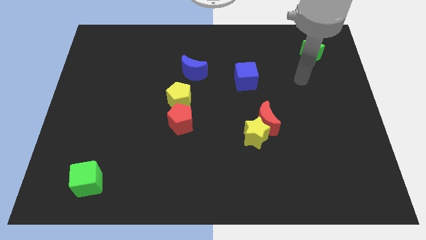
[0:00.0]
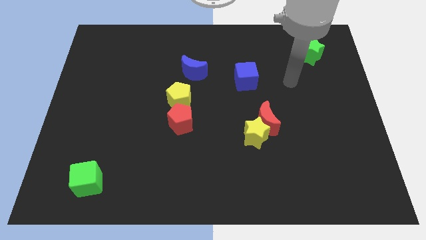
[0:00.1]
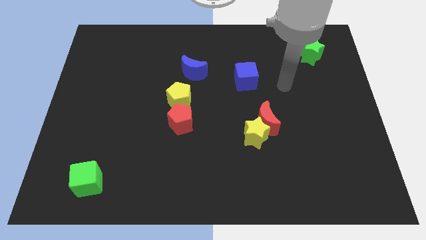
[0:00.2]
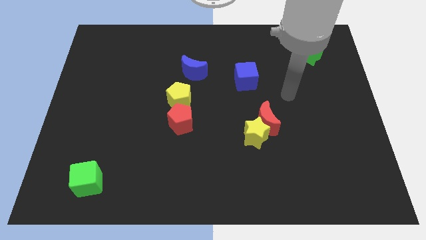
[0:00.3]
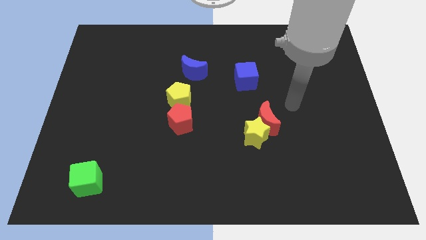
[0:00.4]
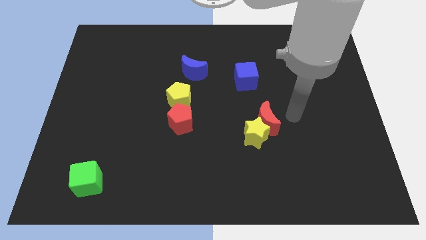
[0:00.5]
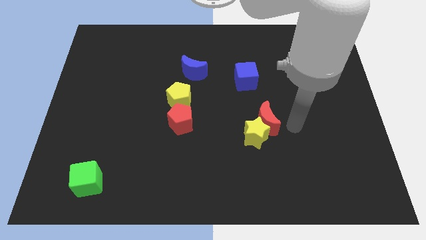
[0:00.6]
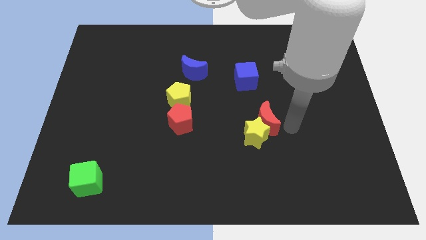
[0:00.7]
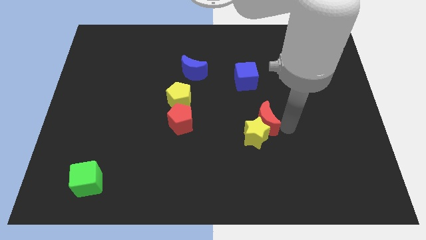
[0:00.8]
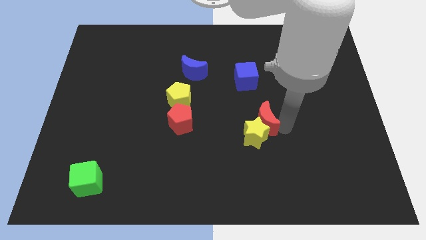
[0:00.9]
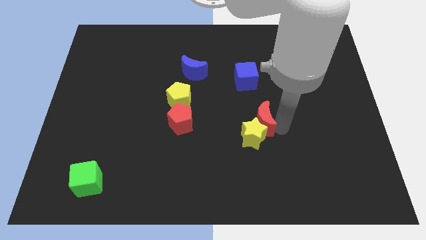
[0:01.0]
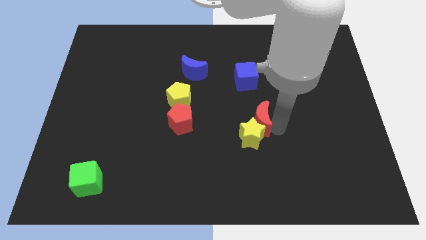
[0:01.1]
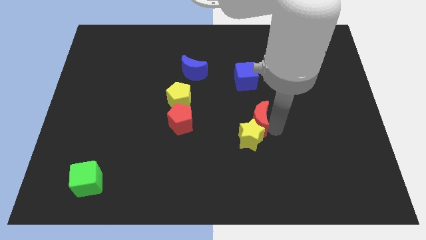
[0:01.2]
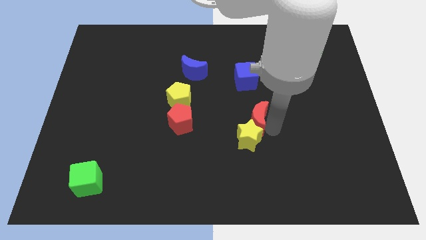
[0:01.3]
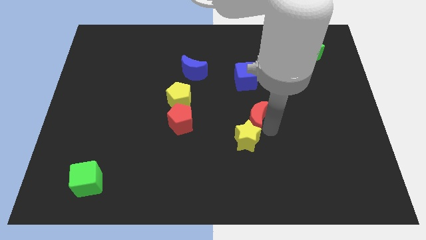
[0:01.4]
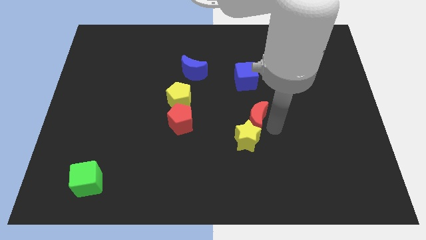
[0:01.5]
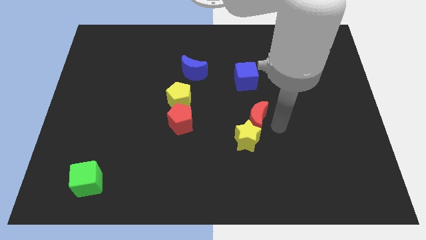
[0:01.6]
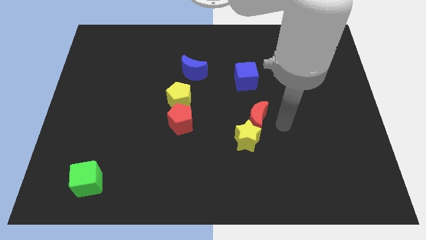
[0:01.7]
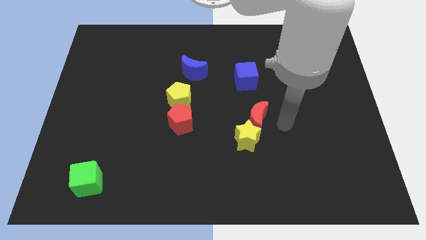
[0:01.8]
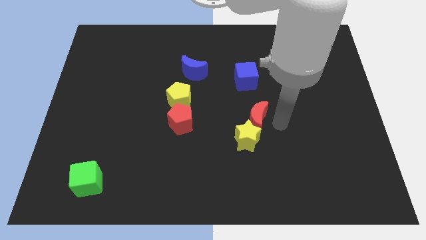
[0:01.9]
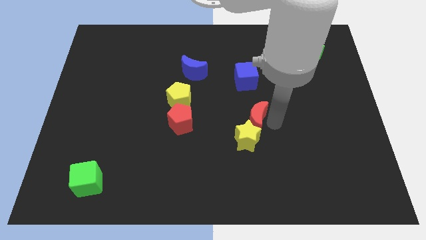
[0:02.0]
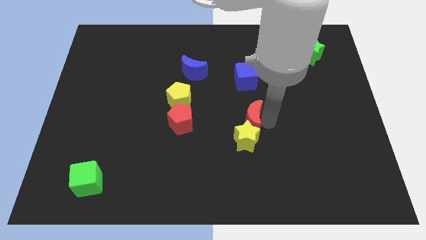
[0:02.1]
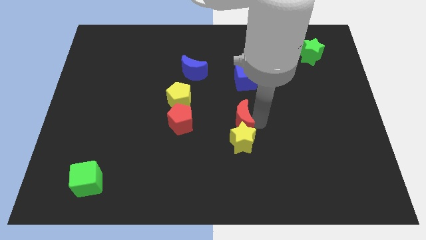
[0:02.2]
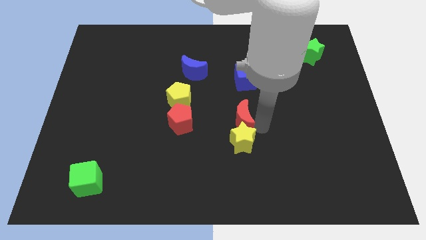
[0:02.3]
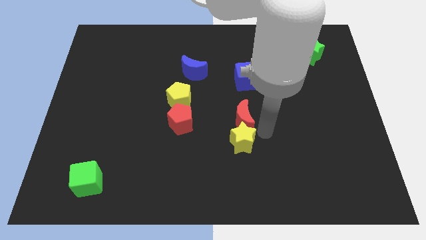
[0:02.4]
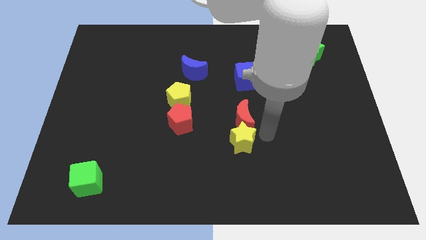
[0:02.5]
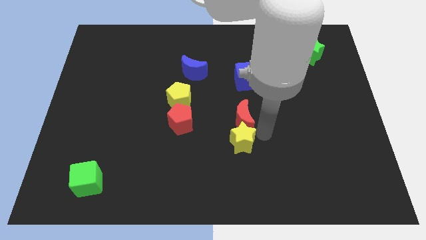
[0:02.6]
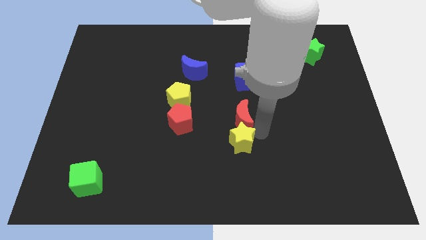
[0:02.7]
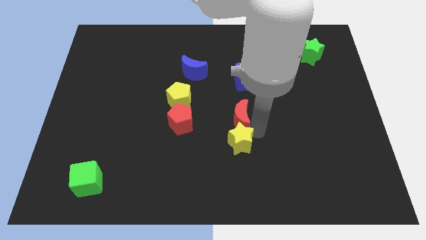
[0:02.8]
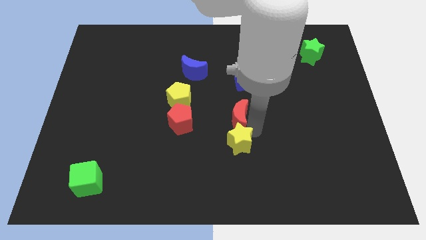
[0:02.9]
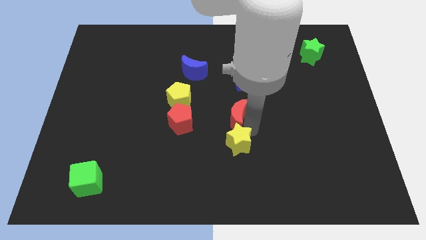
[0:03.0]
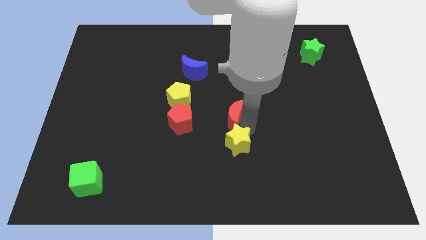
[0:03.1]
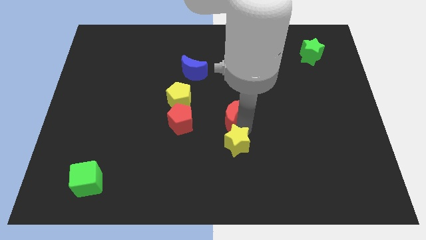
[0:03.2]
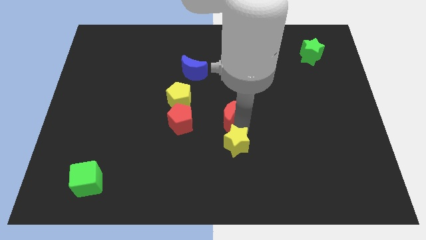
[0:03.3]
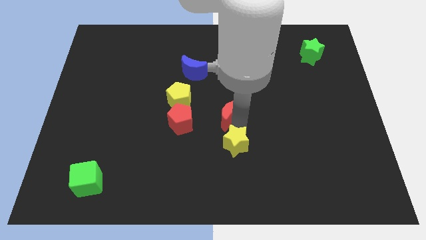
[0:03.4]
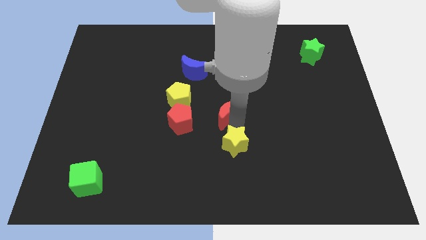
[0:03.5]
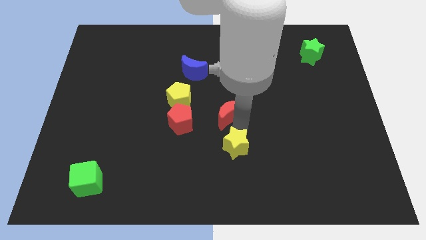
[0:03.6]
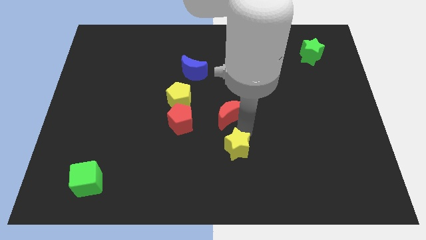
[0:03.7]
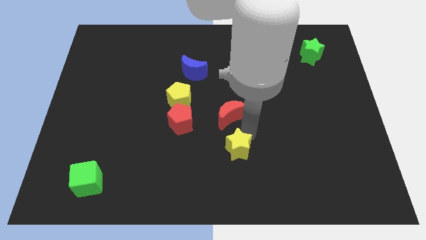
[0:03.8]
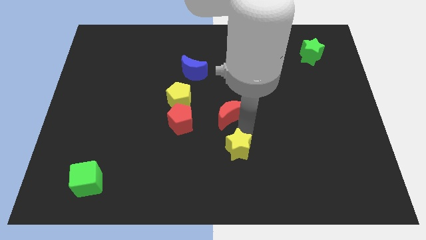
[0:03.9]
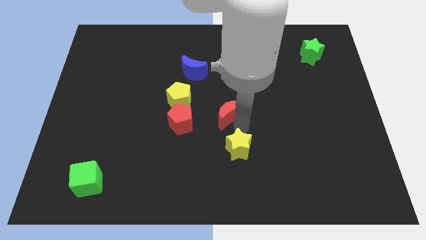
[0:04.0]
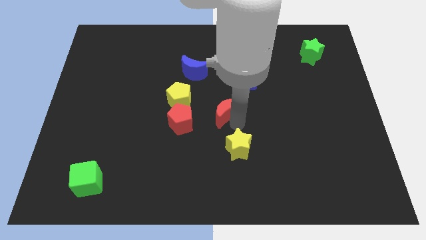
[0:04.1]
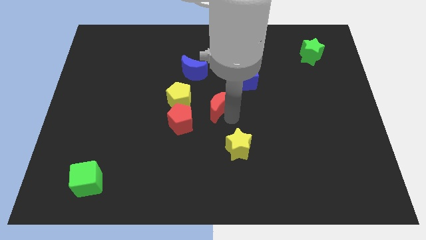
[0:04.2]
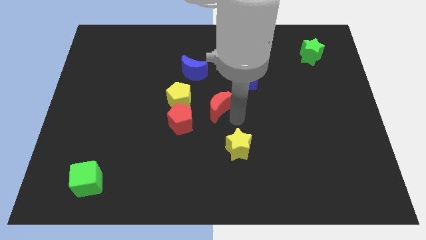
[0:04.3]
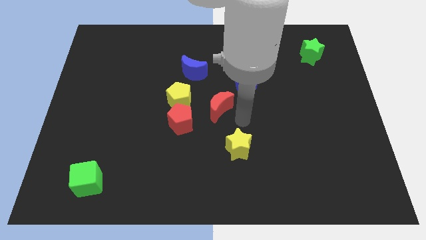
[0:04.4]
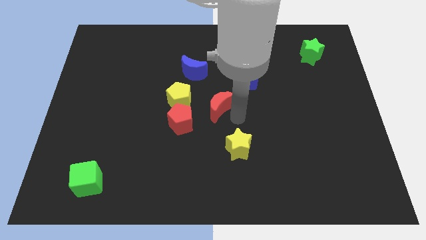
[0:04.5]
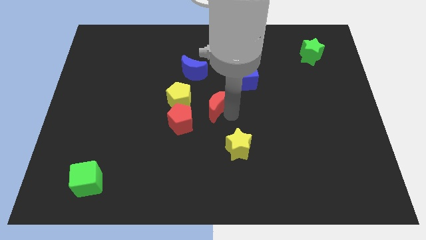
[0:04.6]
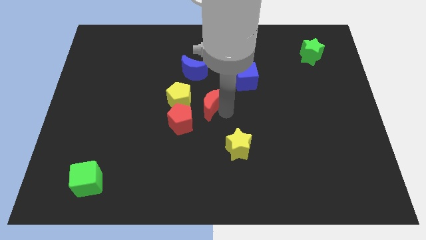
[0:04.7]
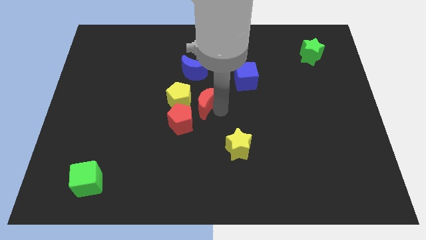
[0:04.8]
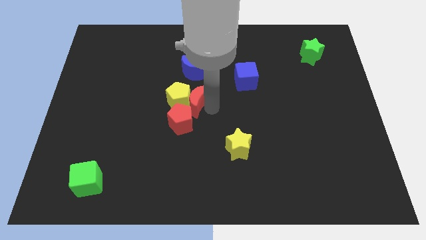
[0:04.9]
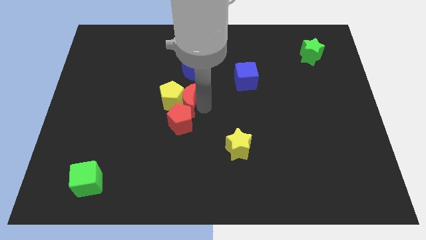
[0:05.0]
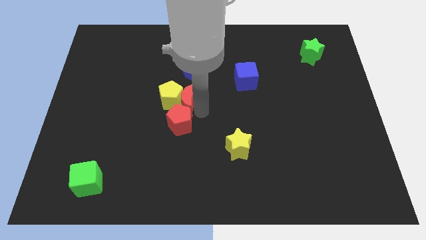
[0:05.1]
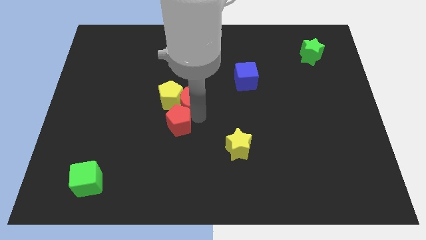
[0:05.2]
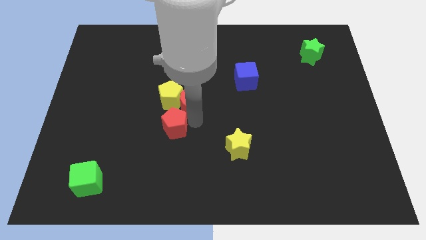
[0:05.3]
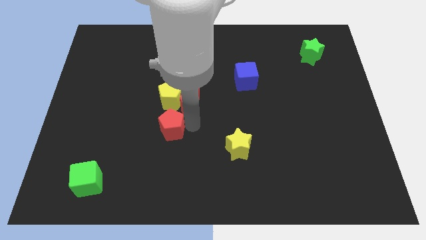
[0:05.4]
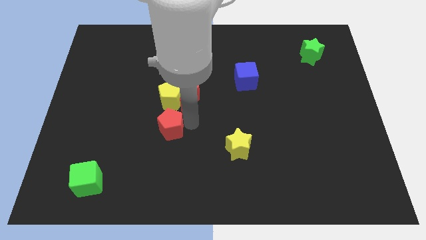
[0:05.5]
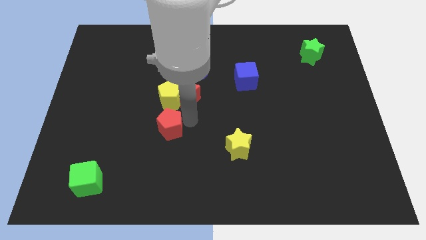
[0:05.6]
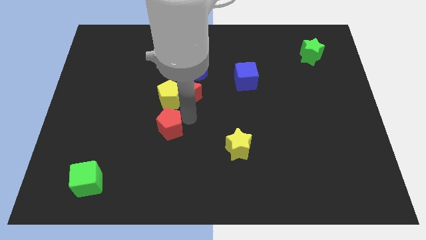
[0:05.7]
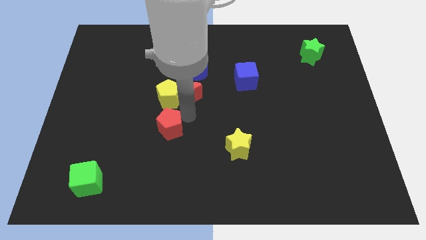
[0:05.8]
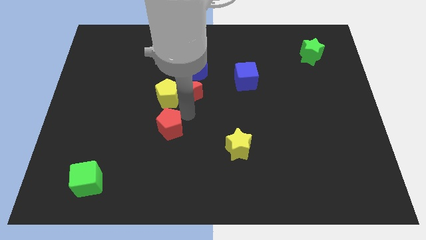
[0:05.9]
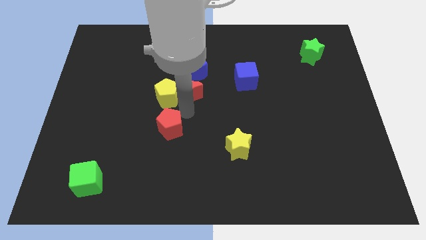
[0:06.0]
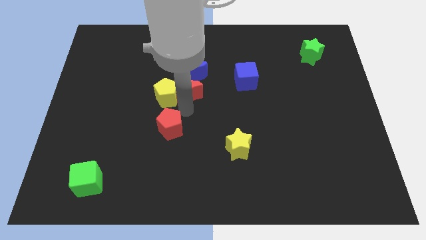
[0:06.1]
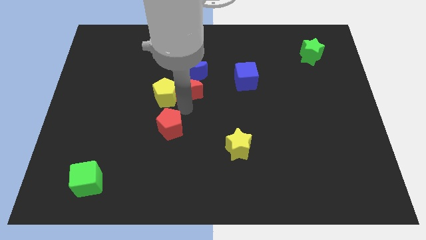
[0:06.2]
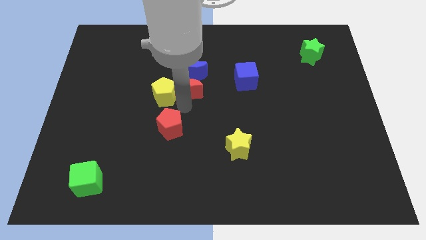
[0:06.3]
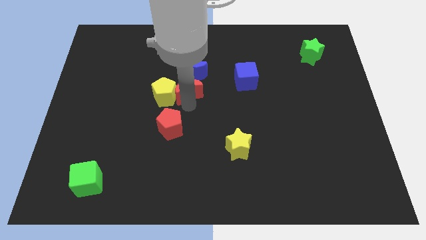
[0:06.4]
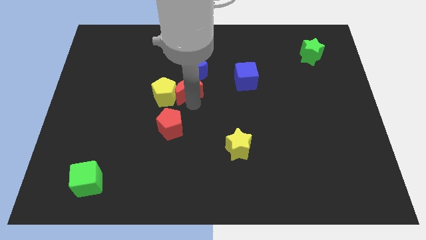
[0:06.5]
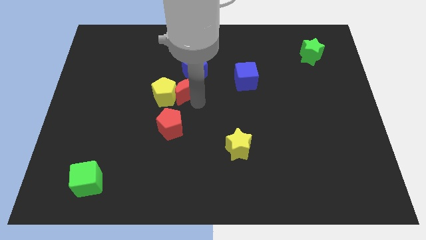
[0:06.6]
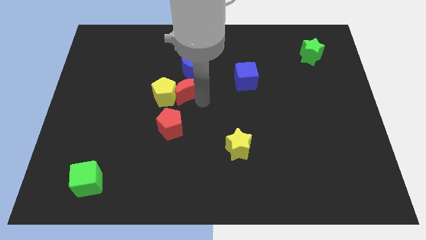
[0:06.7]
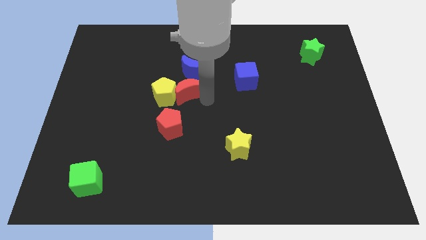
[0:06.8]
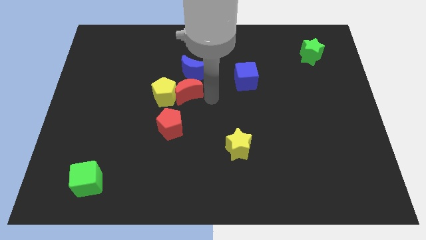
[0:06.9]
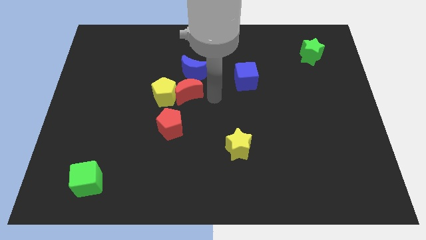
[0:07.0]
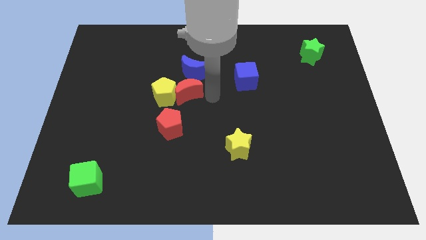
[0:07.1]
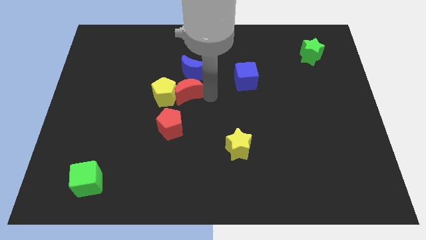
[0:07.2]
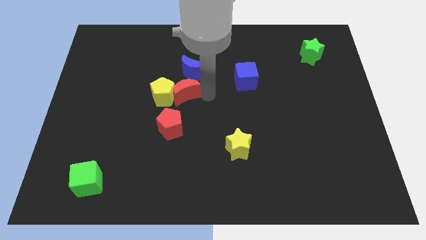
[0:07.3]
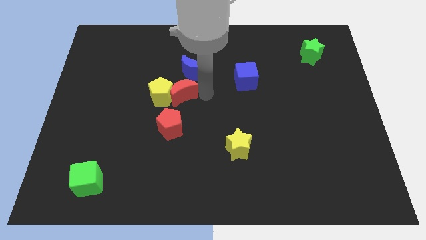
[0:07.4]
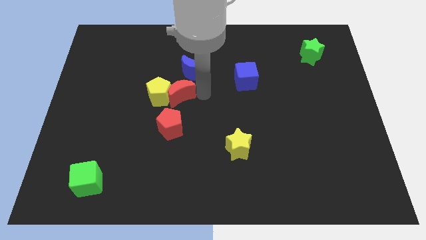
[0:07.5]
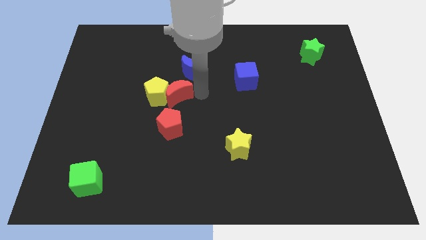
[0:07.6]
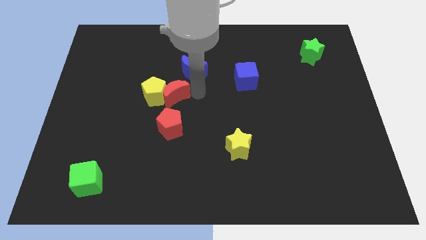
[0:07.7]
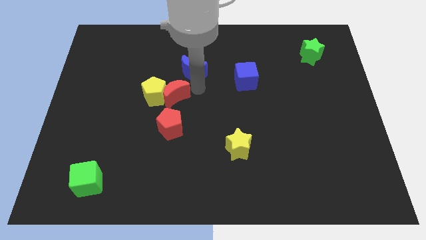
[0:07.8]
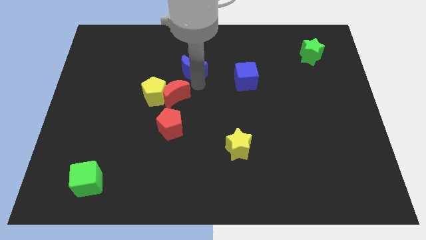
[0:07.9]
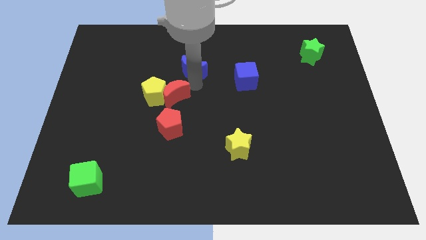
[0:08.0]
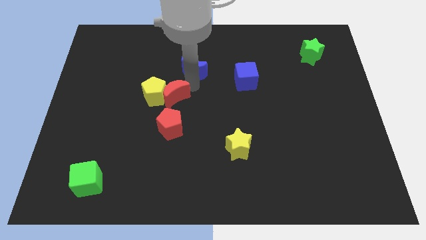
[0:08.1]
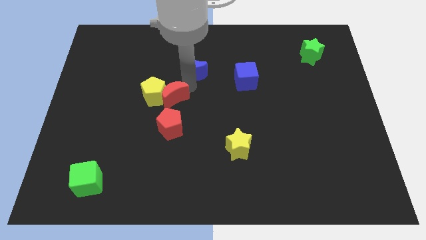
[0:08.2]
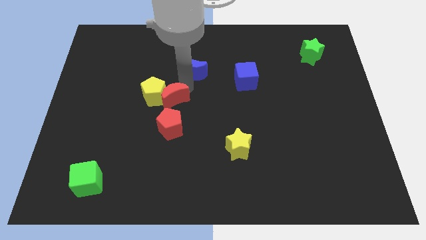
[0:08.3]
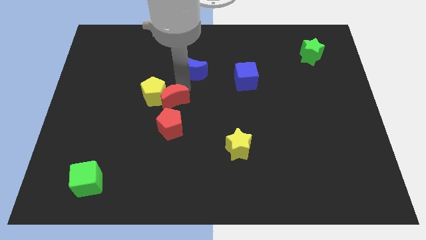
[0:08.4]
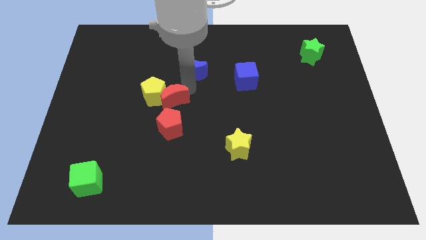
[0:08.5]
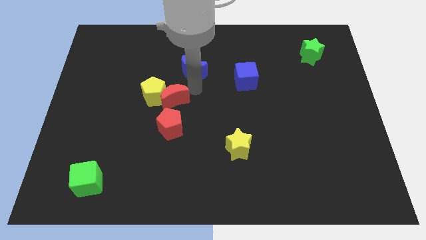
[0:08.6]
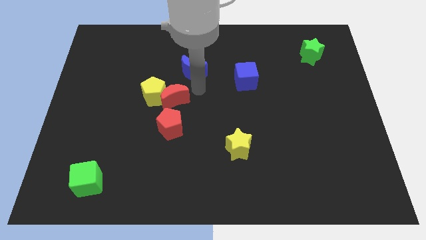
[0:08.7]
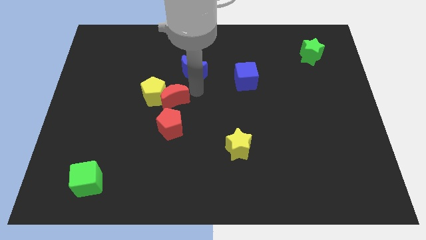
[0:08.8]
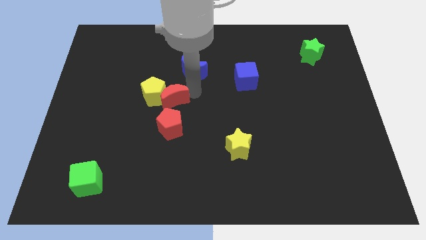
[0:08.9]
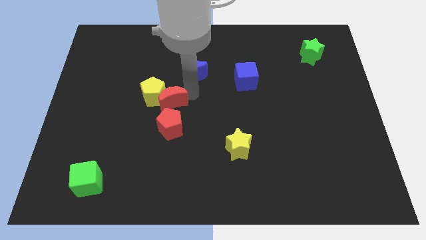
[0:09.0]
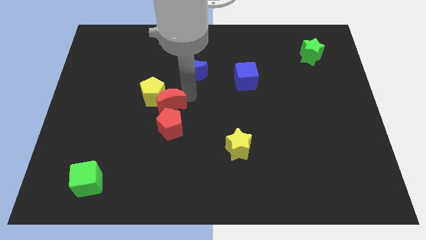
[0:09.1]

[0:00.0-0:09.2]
move the red moon to the top left side of the red pentagon
